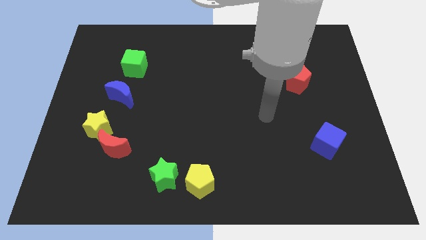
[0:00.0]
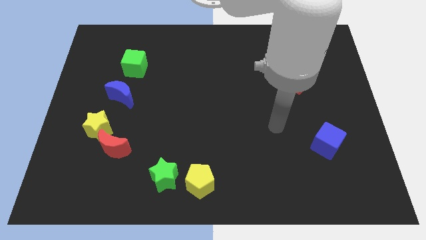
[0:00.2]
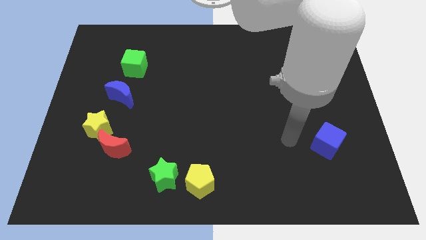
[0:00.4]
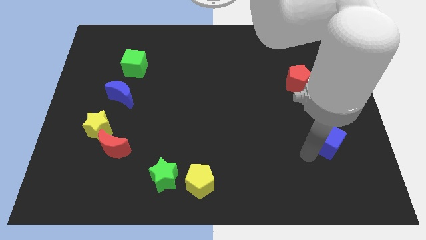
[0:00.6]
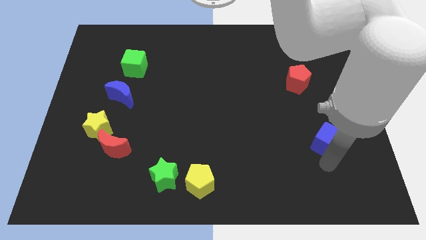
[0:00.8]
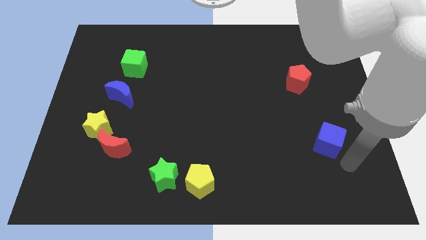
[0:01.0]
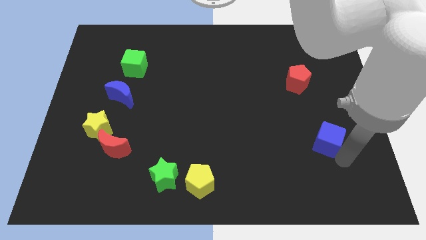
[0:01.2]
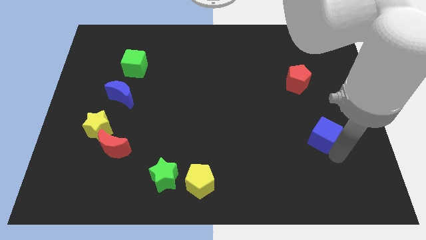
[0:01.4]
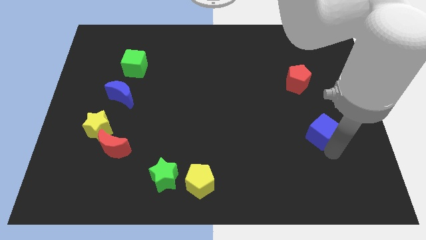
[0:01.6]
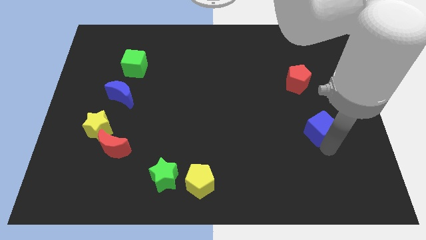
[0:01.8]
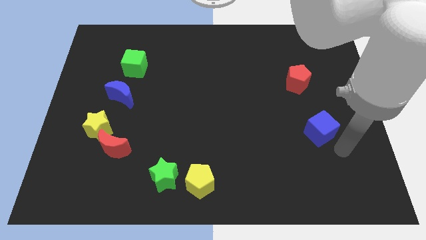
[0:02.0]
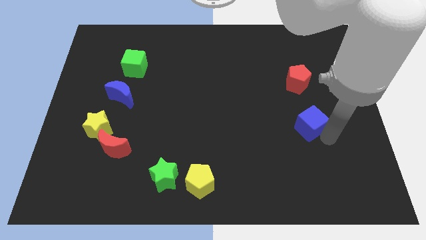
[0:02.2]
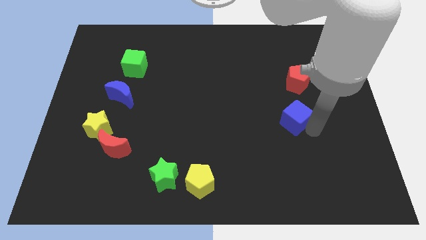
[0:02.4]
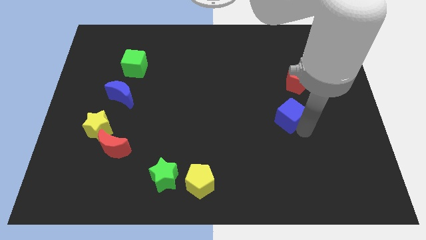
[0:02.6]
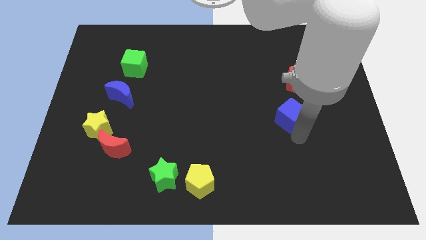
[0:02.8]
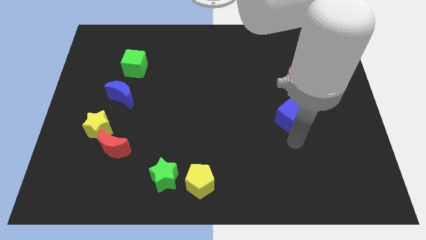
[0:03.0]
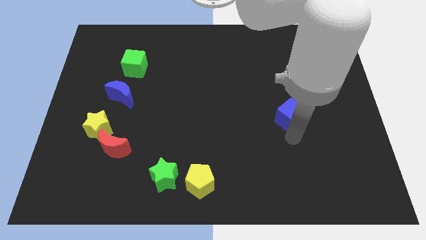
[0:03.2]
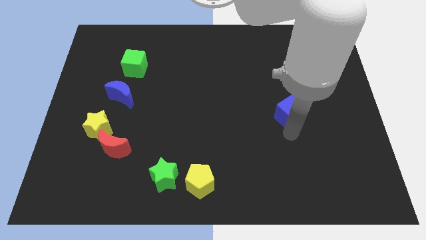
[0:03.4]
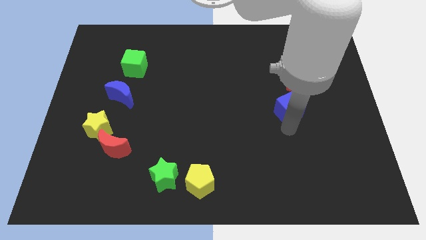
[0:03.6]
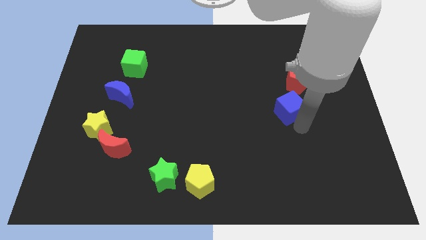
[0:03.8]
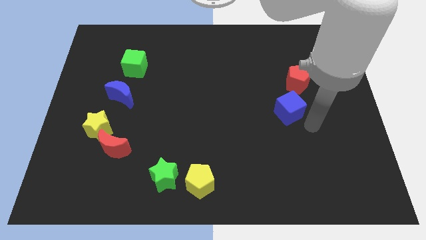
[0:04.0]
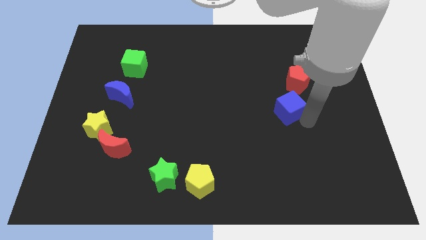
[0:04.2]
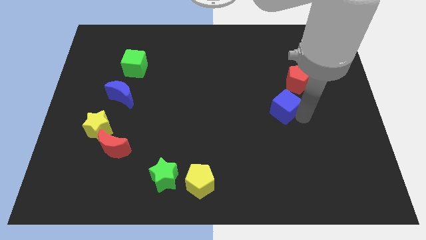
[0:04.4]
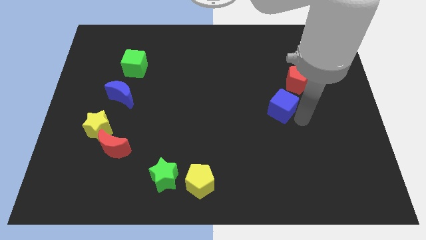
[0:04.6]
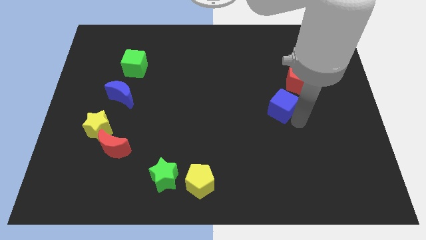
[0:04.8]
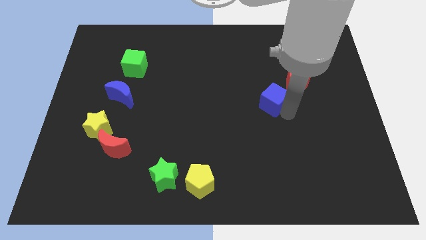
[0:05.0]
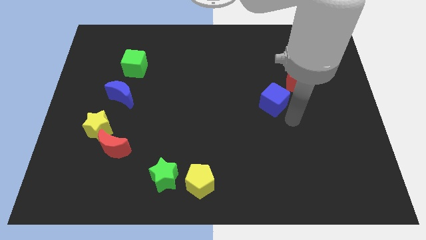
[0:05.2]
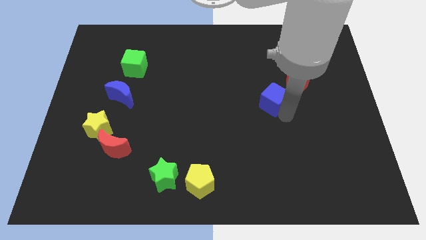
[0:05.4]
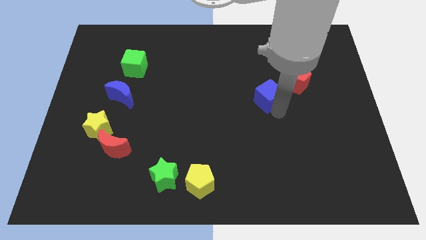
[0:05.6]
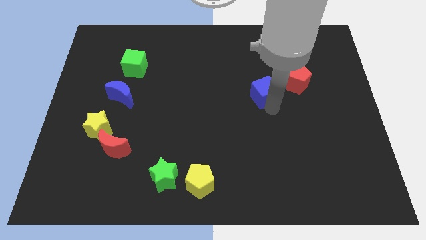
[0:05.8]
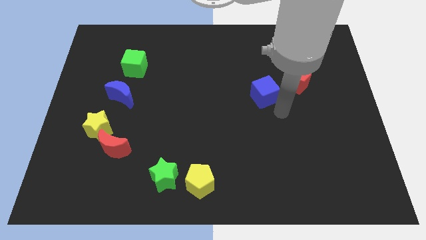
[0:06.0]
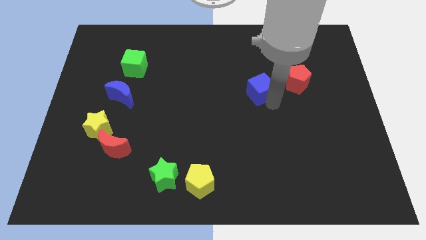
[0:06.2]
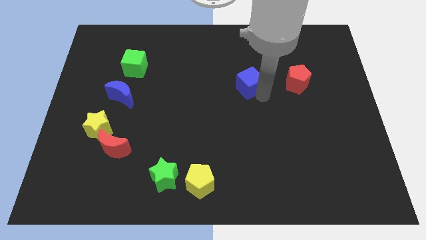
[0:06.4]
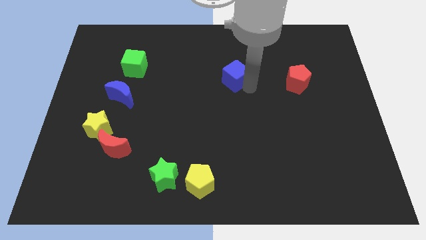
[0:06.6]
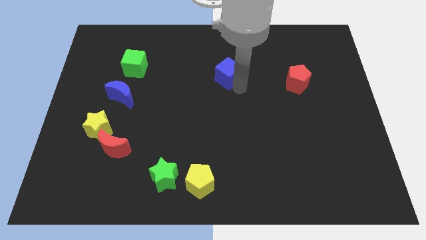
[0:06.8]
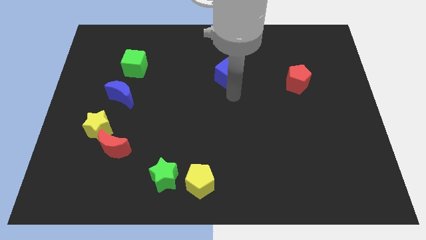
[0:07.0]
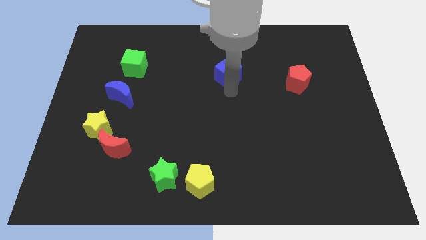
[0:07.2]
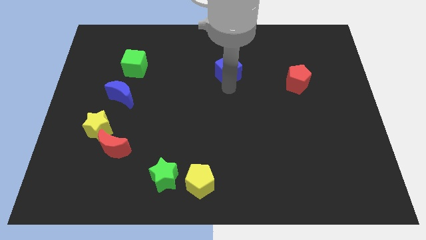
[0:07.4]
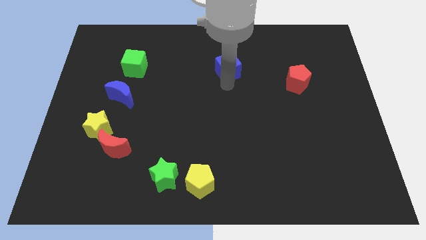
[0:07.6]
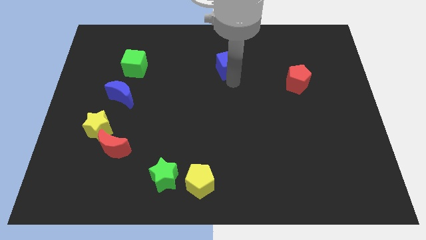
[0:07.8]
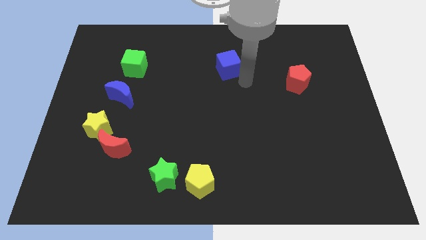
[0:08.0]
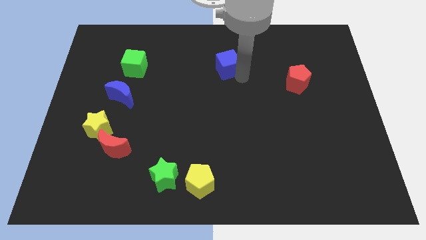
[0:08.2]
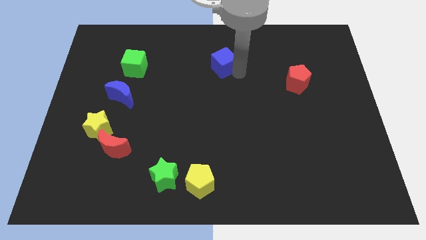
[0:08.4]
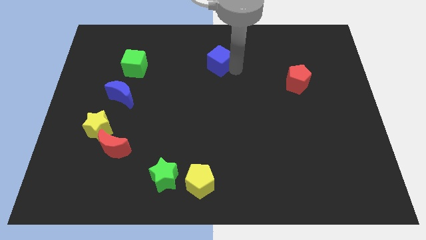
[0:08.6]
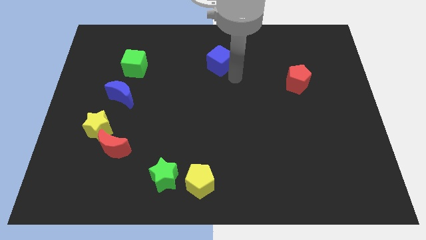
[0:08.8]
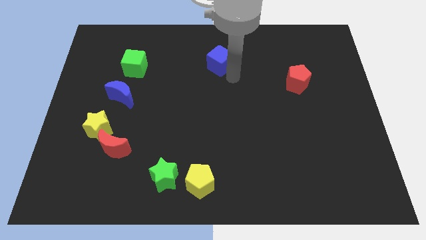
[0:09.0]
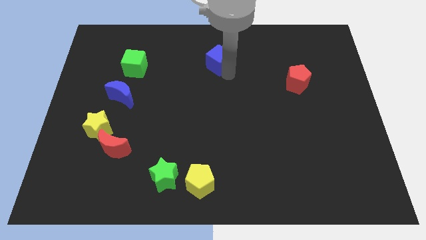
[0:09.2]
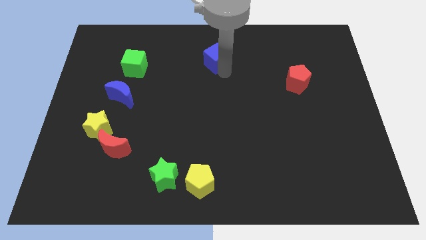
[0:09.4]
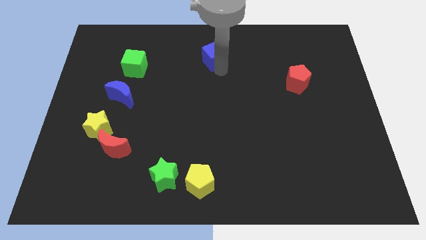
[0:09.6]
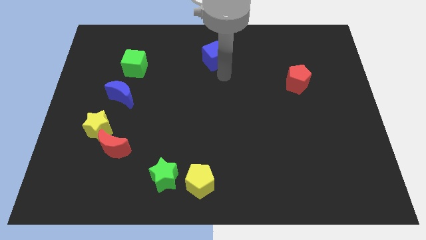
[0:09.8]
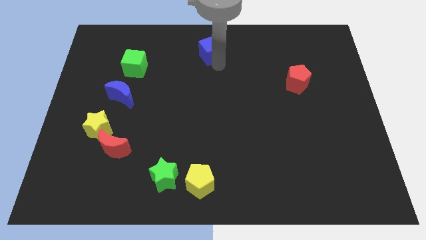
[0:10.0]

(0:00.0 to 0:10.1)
put the blue cube to the top side

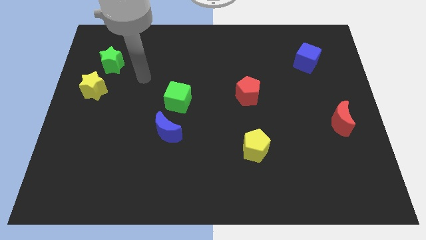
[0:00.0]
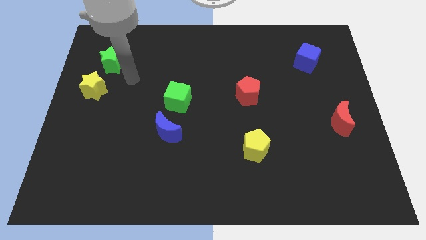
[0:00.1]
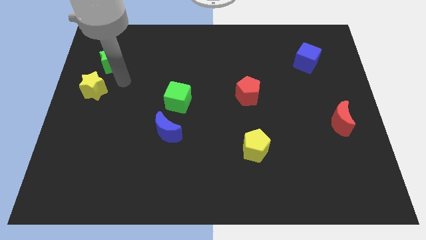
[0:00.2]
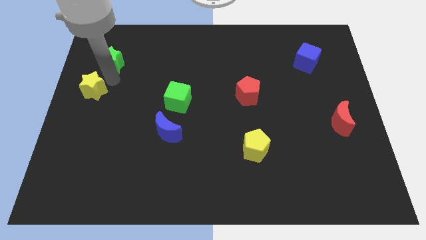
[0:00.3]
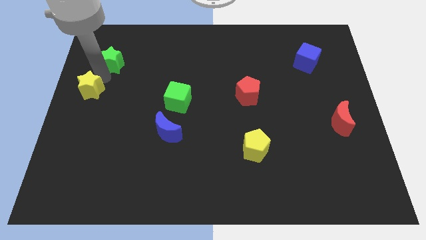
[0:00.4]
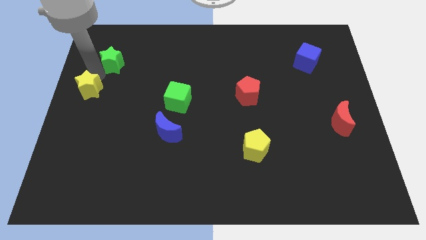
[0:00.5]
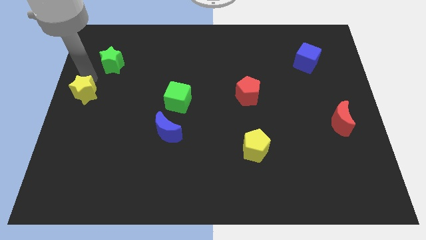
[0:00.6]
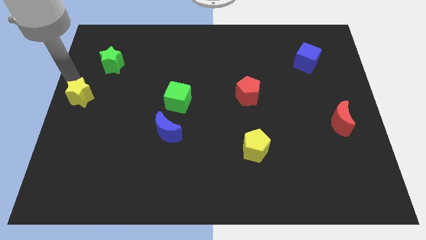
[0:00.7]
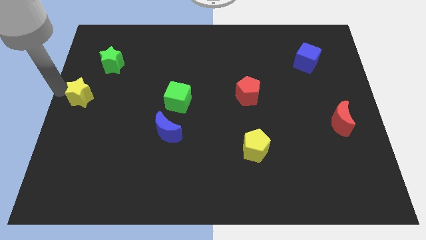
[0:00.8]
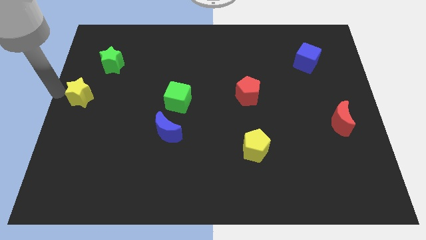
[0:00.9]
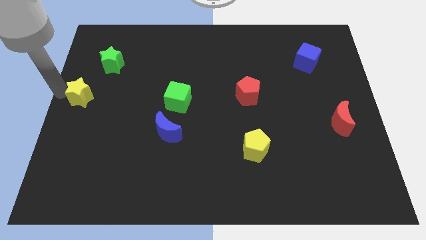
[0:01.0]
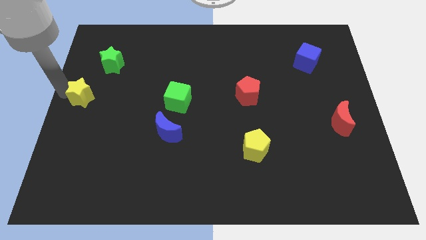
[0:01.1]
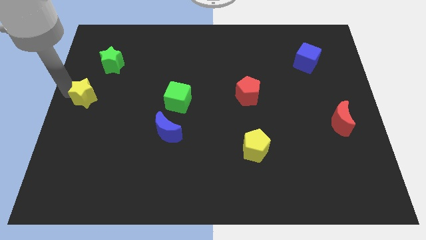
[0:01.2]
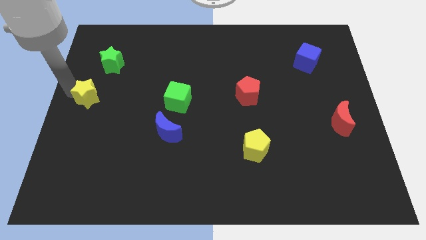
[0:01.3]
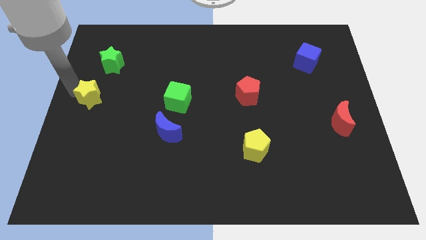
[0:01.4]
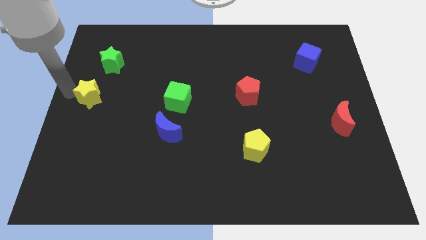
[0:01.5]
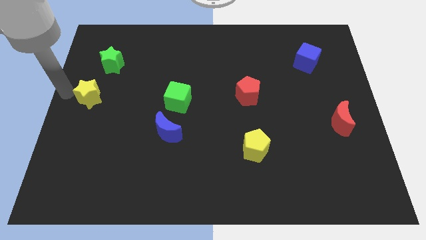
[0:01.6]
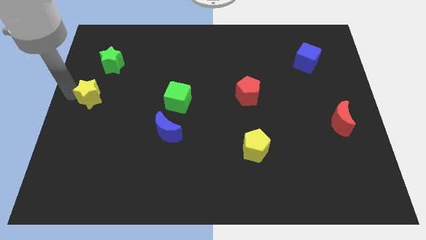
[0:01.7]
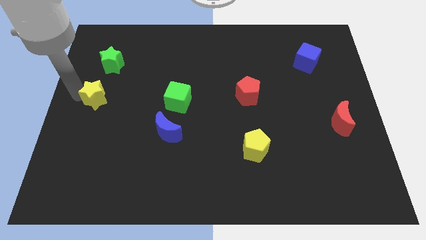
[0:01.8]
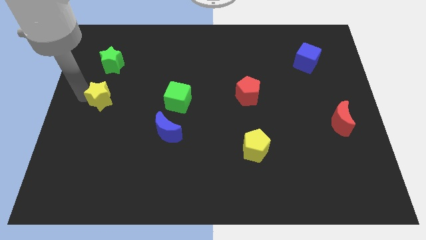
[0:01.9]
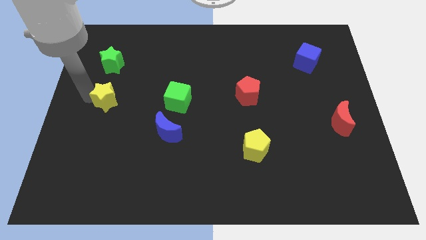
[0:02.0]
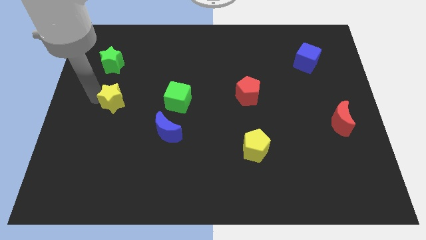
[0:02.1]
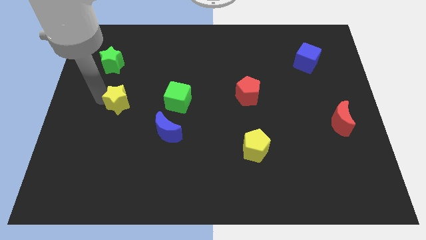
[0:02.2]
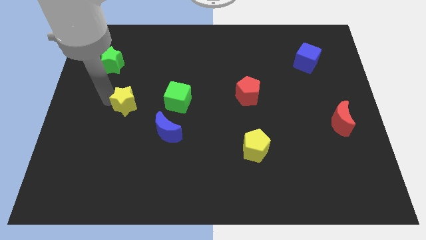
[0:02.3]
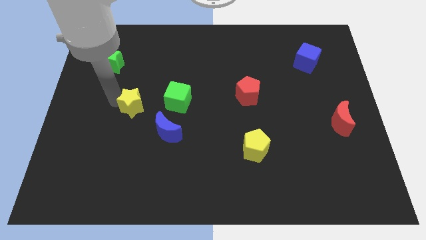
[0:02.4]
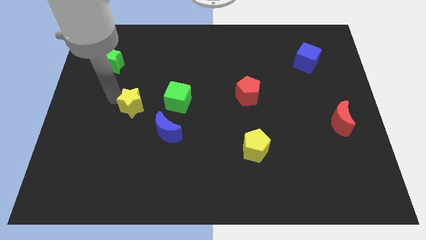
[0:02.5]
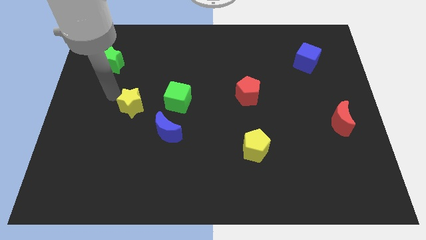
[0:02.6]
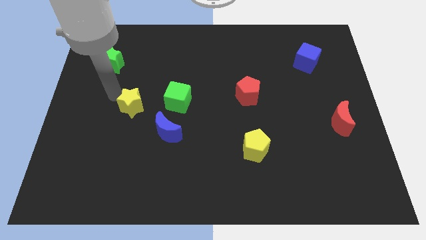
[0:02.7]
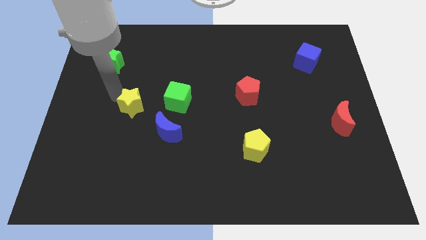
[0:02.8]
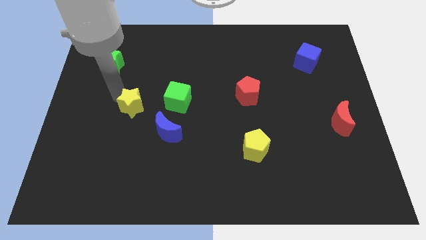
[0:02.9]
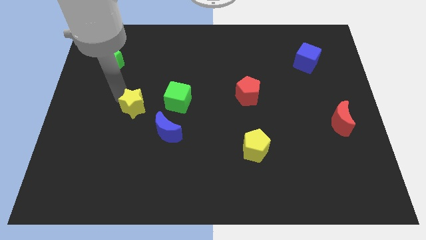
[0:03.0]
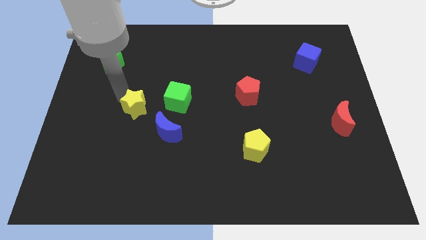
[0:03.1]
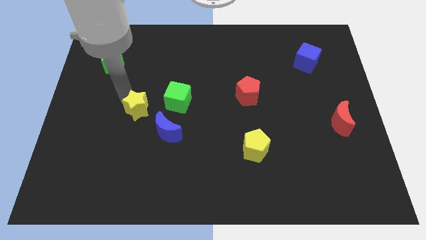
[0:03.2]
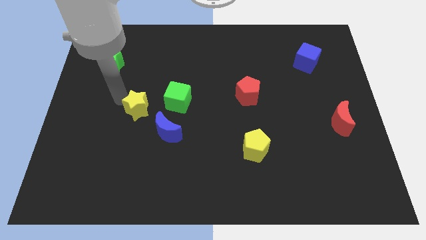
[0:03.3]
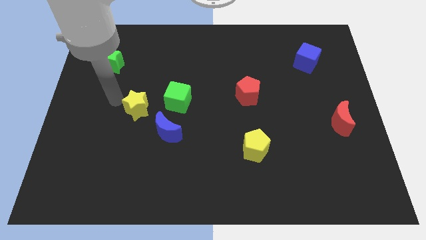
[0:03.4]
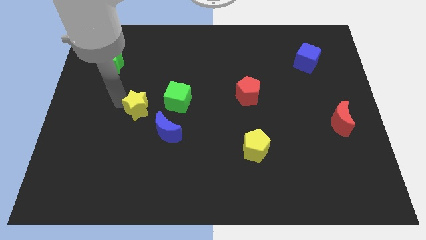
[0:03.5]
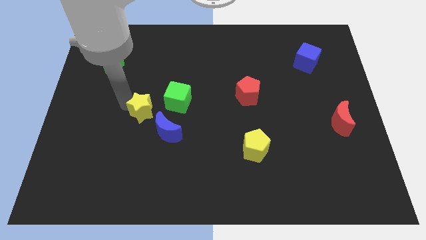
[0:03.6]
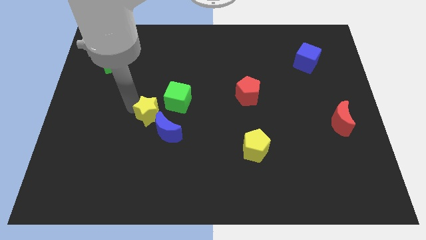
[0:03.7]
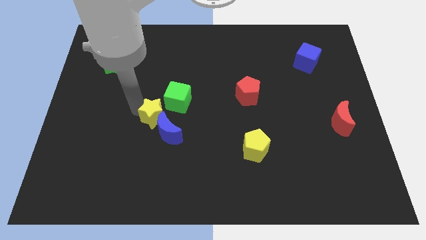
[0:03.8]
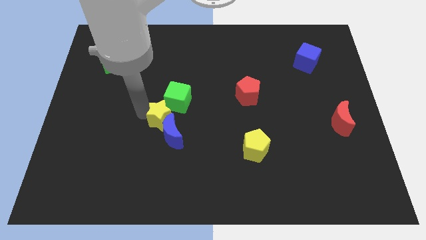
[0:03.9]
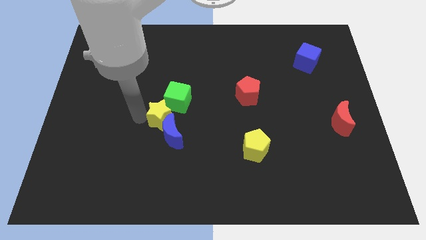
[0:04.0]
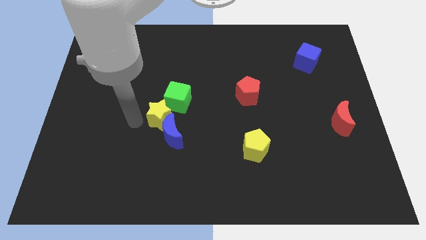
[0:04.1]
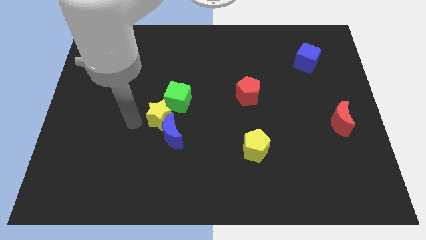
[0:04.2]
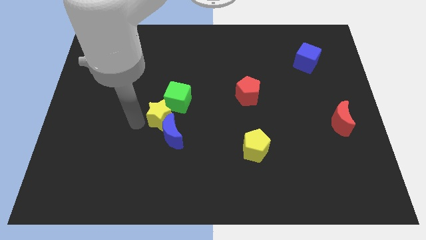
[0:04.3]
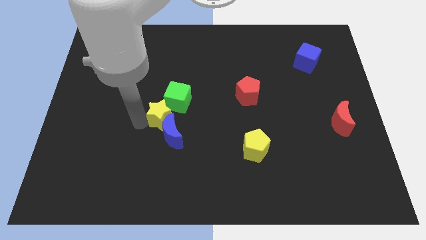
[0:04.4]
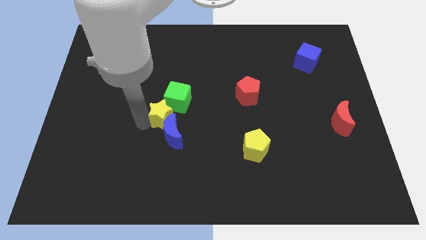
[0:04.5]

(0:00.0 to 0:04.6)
slide the yellow star to the middle of the board
